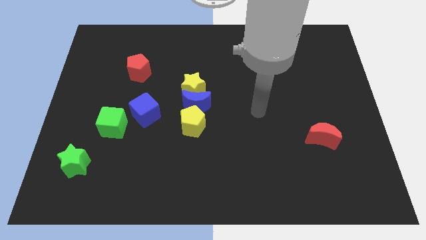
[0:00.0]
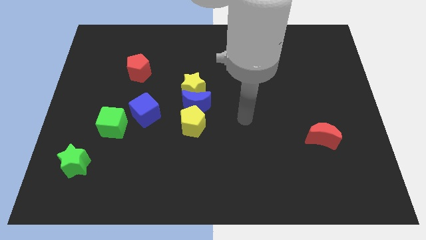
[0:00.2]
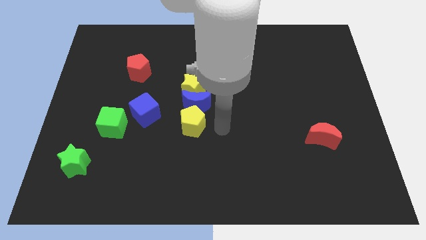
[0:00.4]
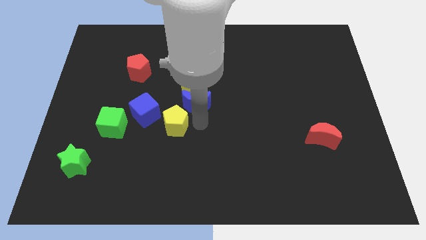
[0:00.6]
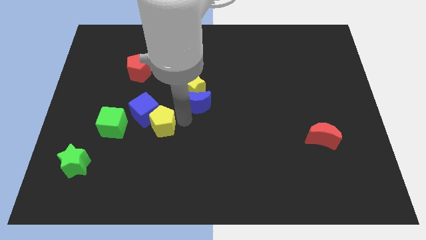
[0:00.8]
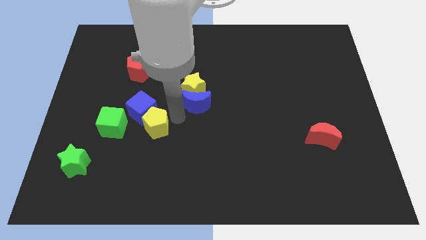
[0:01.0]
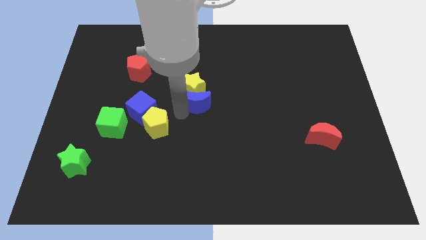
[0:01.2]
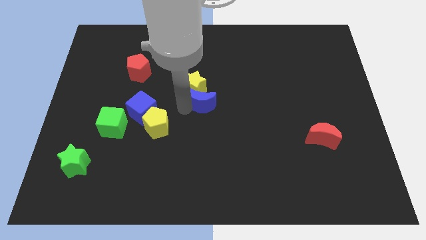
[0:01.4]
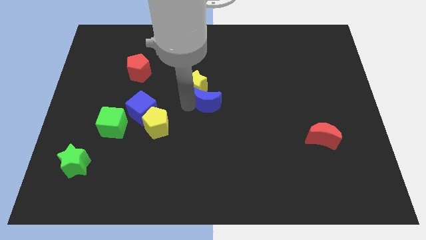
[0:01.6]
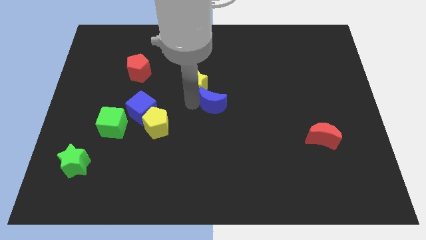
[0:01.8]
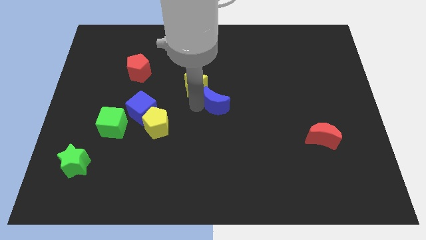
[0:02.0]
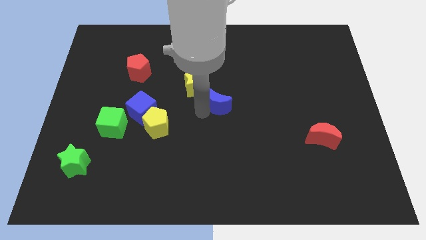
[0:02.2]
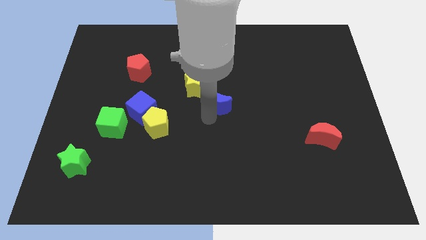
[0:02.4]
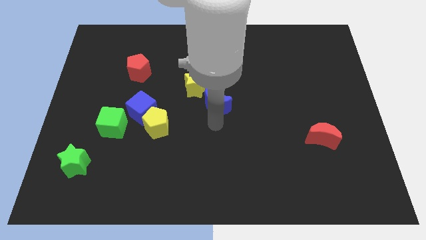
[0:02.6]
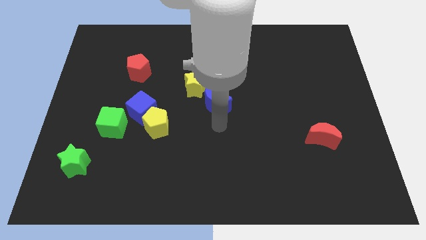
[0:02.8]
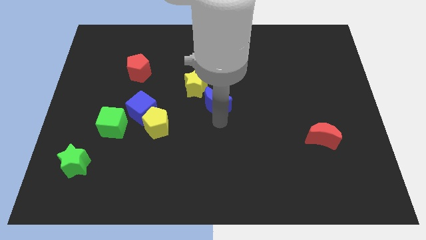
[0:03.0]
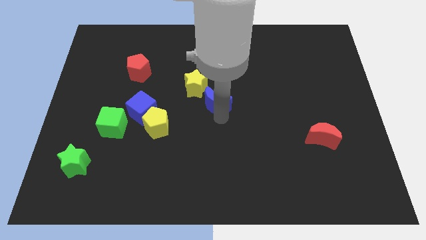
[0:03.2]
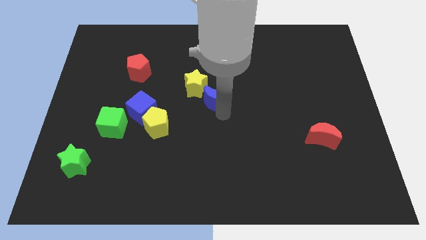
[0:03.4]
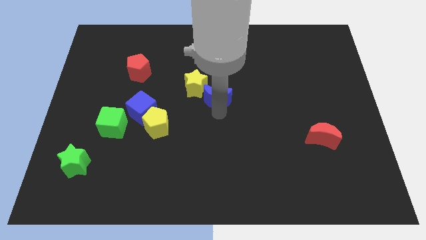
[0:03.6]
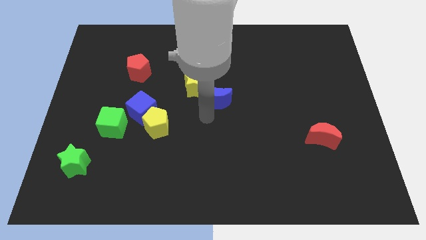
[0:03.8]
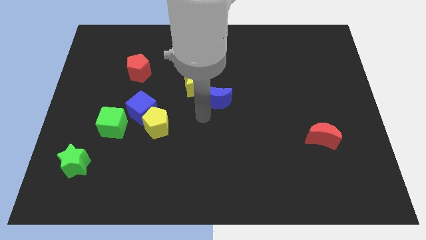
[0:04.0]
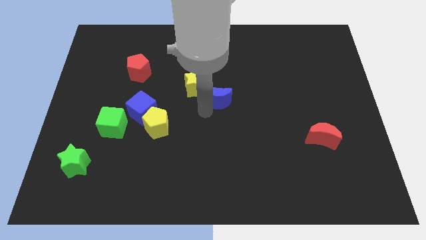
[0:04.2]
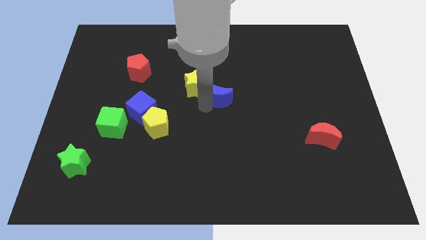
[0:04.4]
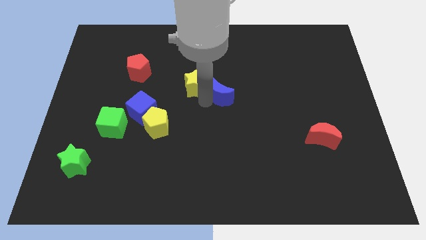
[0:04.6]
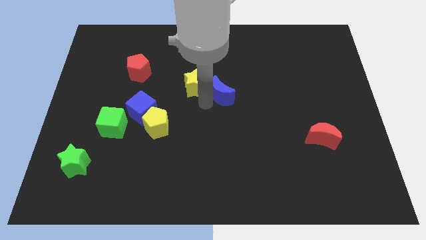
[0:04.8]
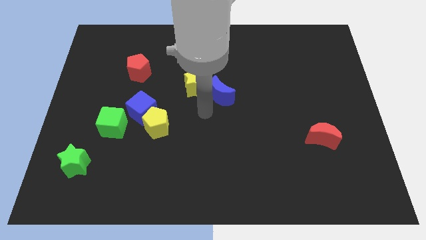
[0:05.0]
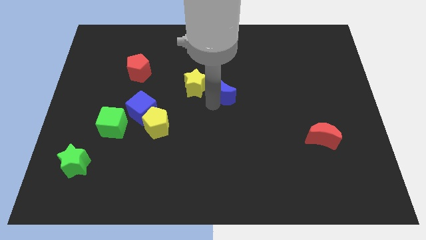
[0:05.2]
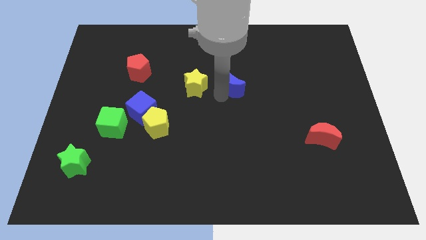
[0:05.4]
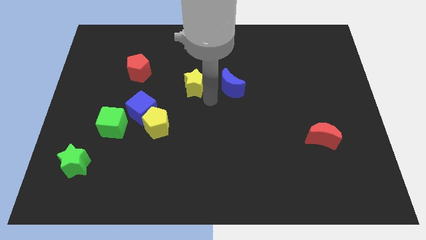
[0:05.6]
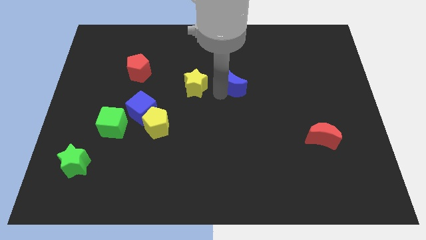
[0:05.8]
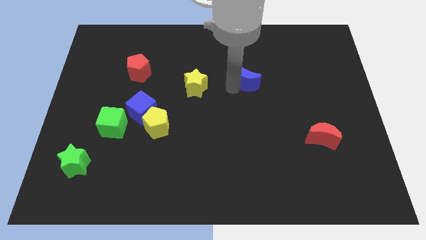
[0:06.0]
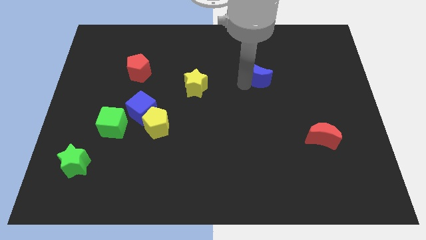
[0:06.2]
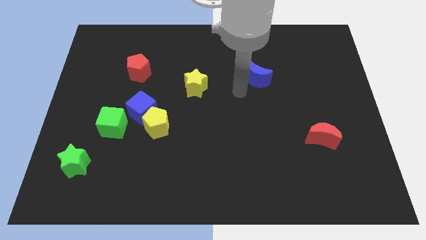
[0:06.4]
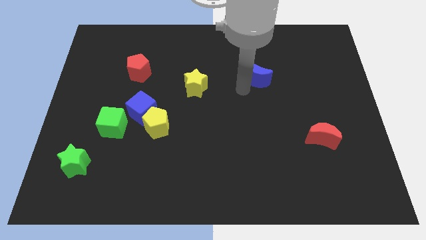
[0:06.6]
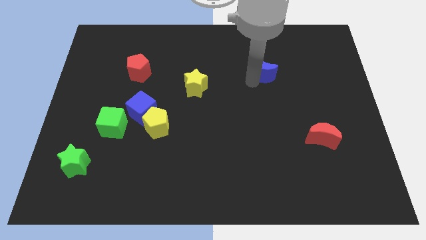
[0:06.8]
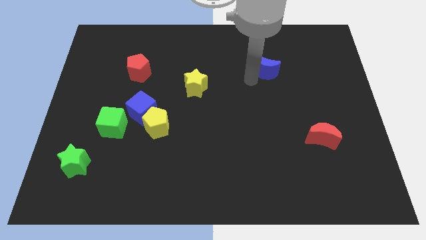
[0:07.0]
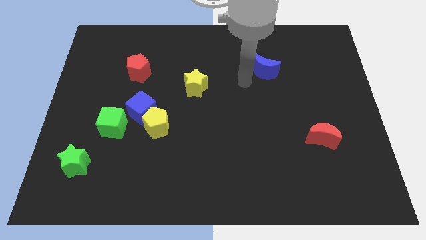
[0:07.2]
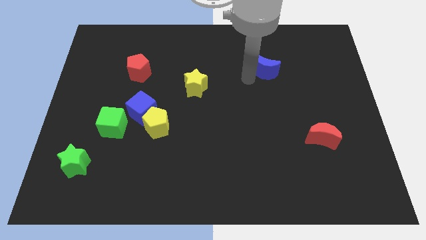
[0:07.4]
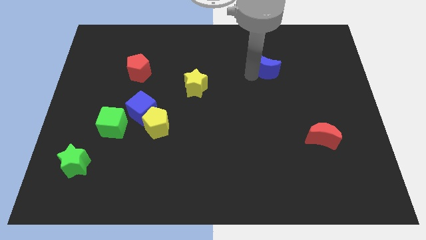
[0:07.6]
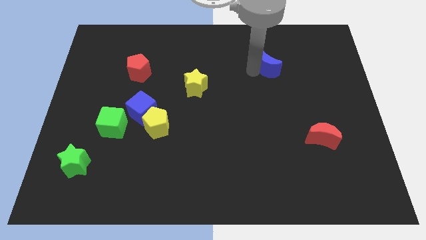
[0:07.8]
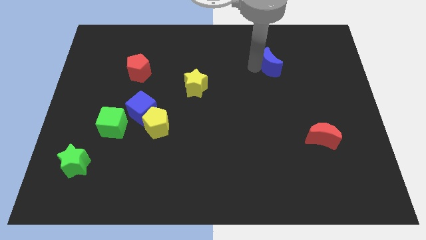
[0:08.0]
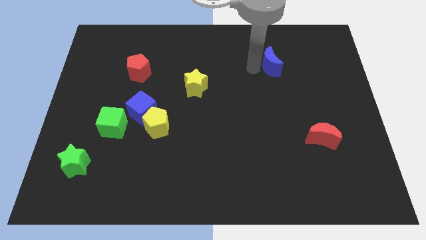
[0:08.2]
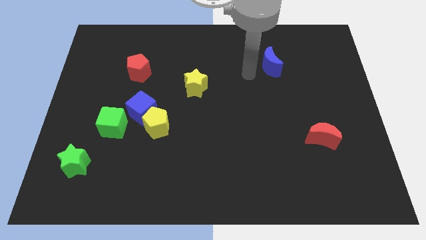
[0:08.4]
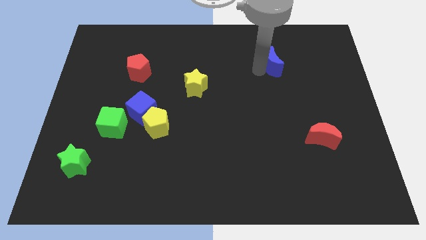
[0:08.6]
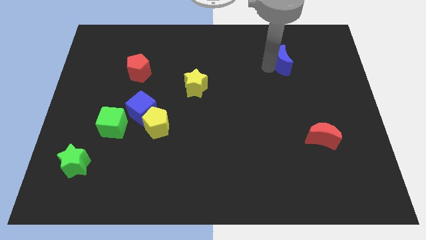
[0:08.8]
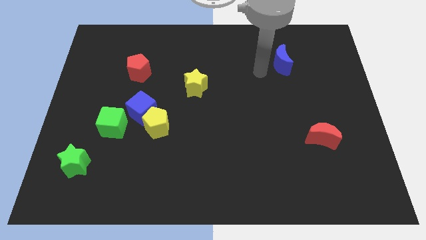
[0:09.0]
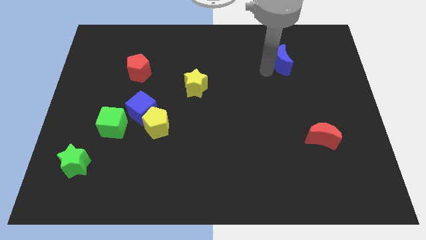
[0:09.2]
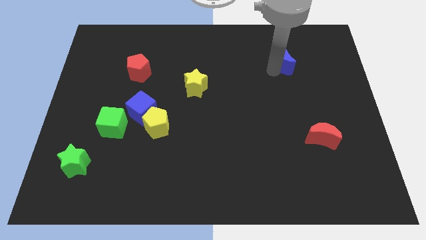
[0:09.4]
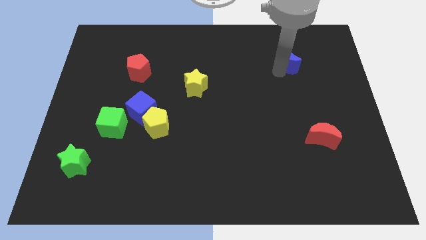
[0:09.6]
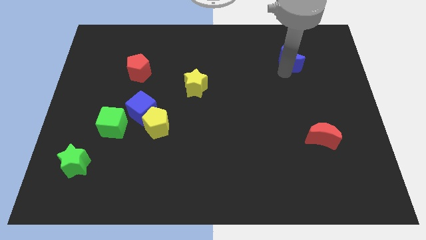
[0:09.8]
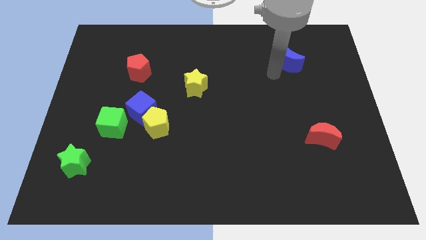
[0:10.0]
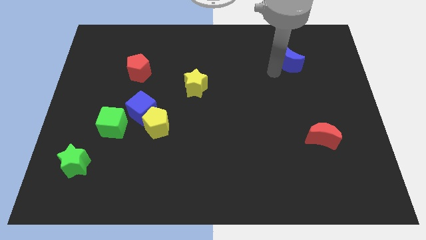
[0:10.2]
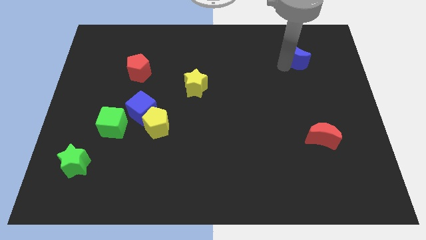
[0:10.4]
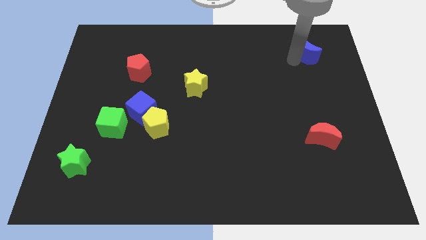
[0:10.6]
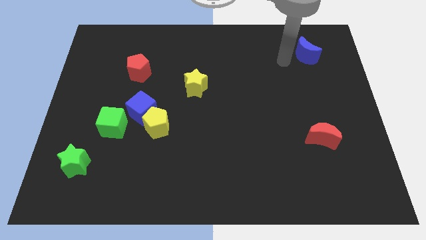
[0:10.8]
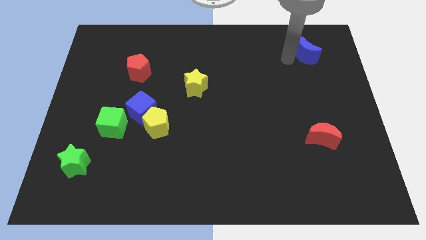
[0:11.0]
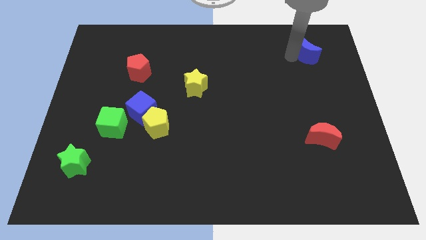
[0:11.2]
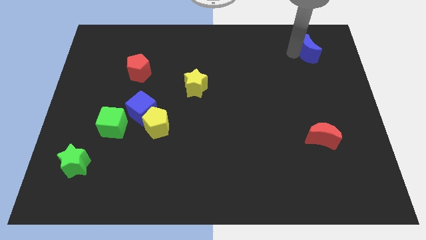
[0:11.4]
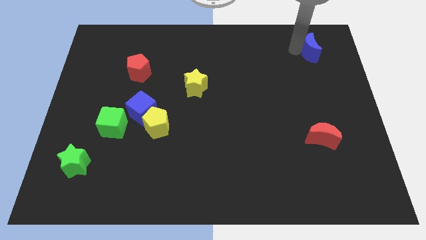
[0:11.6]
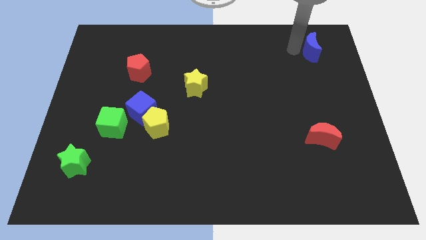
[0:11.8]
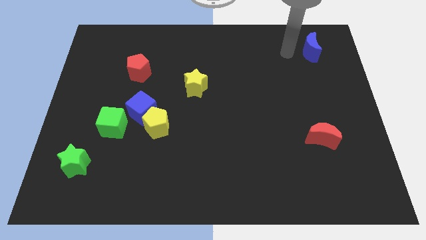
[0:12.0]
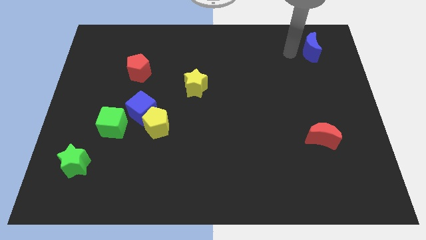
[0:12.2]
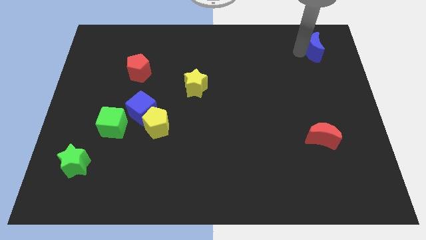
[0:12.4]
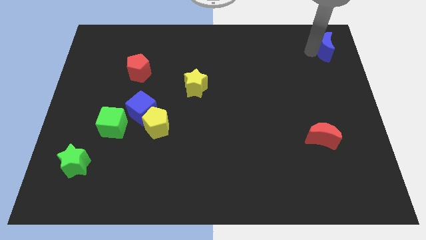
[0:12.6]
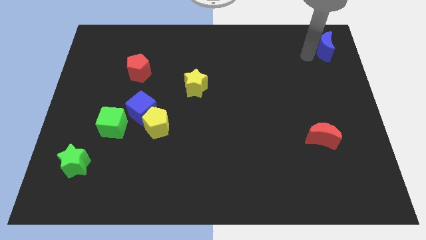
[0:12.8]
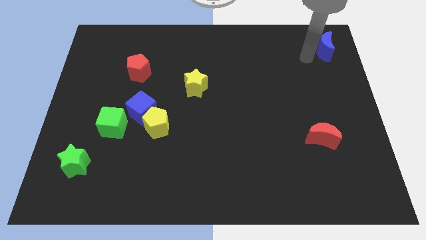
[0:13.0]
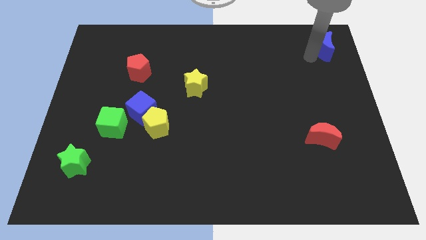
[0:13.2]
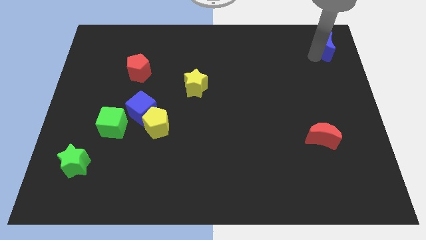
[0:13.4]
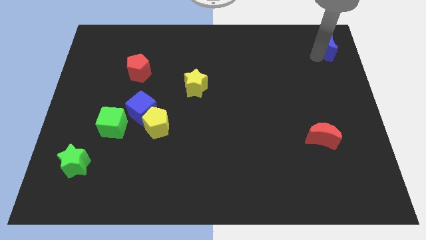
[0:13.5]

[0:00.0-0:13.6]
put the blue moon to the top right of the board
